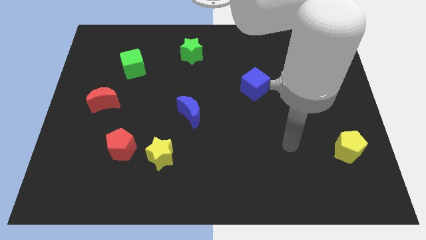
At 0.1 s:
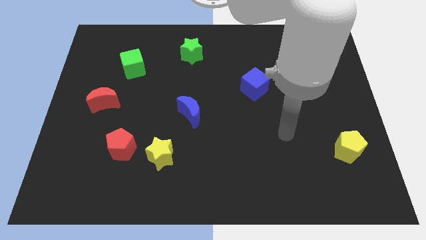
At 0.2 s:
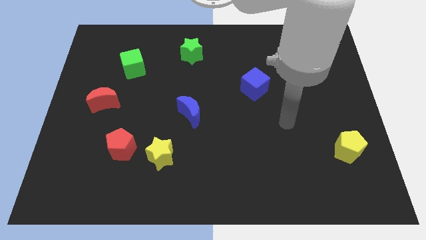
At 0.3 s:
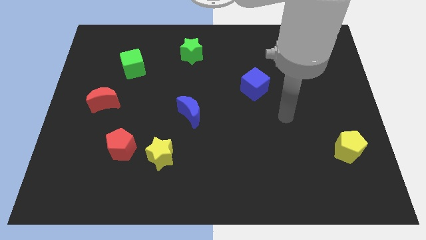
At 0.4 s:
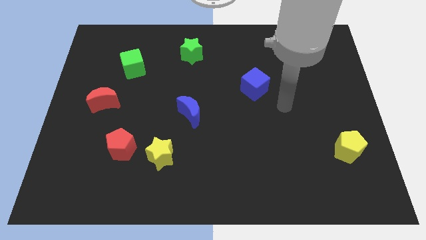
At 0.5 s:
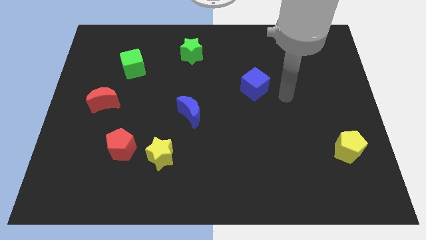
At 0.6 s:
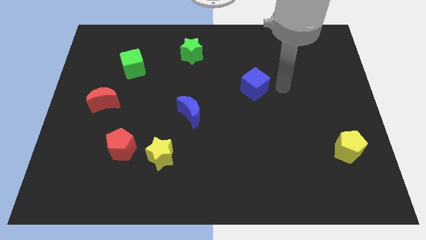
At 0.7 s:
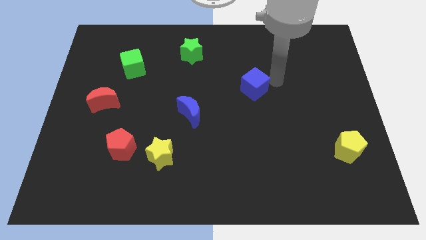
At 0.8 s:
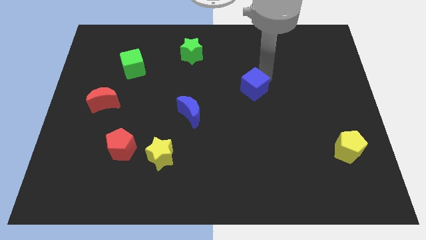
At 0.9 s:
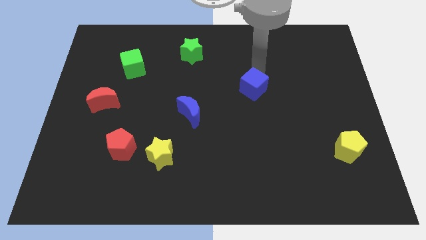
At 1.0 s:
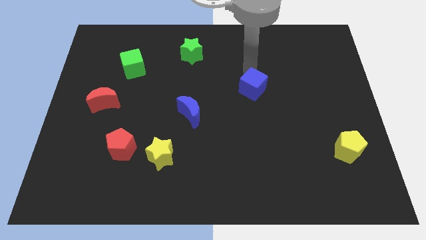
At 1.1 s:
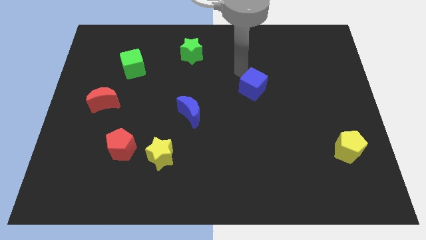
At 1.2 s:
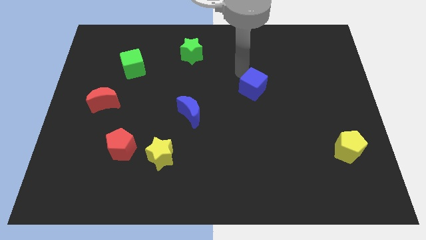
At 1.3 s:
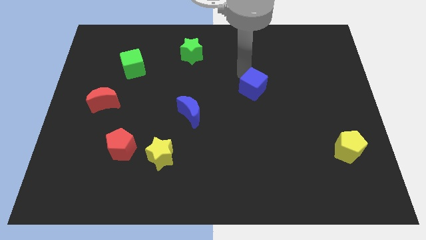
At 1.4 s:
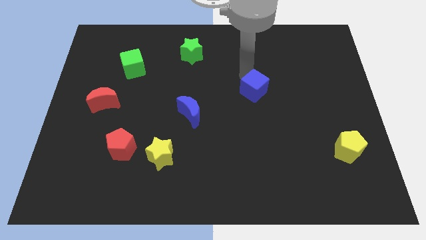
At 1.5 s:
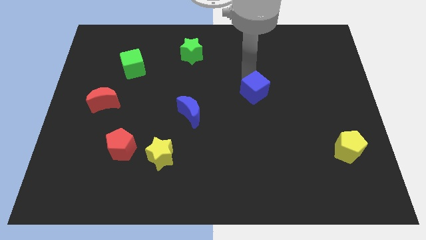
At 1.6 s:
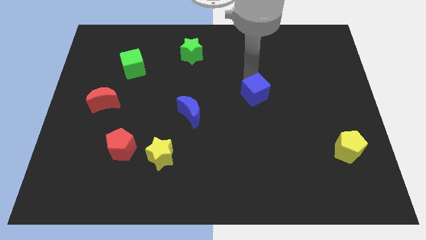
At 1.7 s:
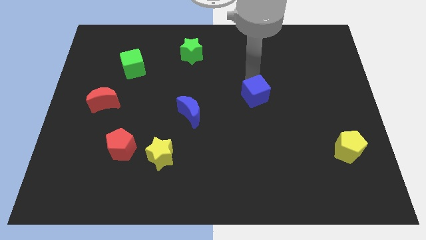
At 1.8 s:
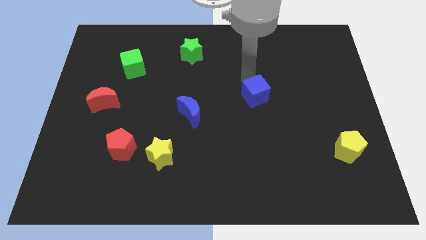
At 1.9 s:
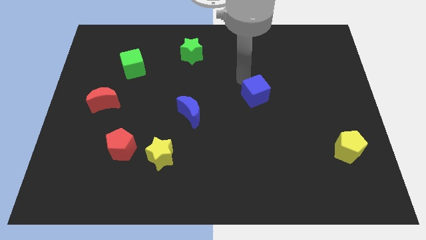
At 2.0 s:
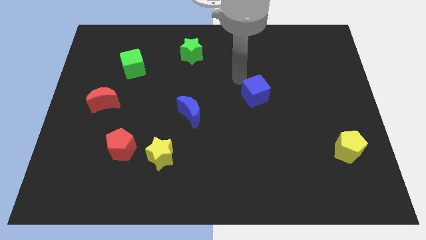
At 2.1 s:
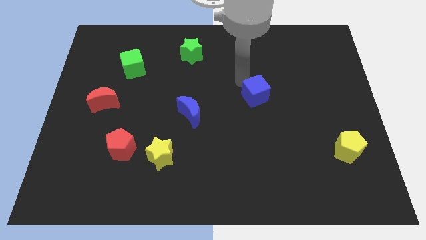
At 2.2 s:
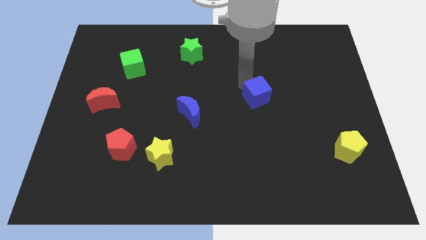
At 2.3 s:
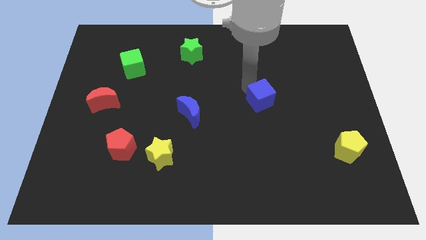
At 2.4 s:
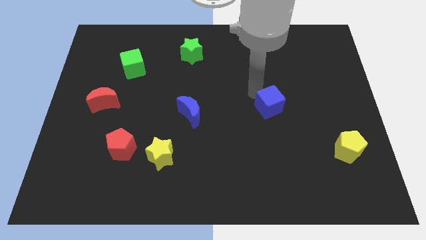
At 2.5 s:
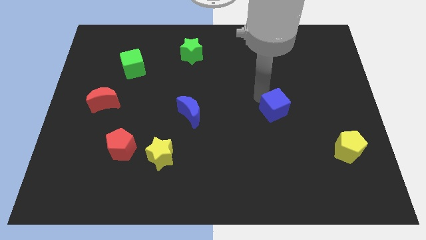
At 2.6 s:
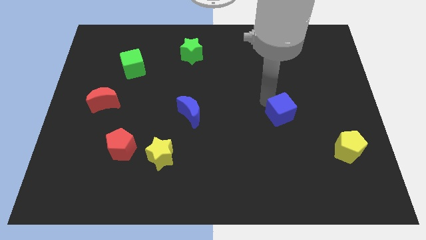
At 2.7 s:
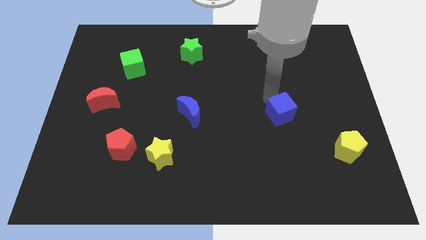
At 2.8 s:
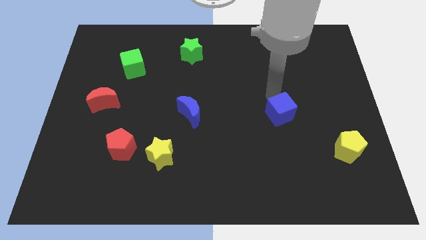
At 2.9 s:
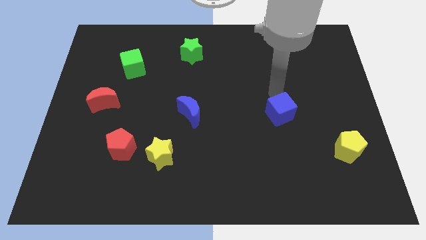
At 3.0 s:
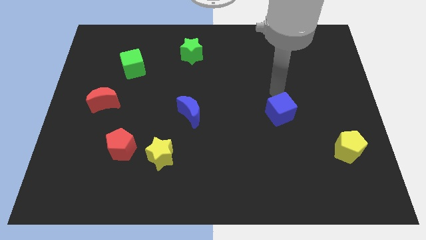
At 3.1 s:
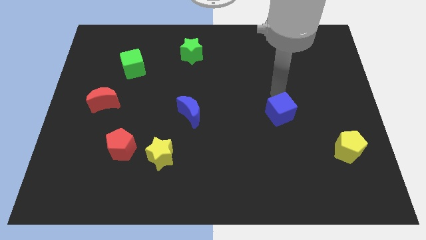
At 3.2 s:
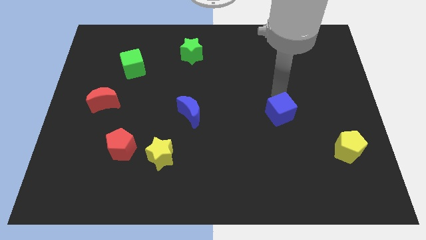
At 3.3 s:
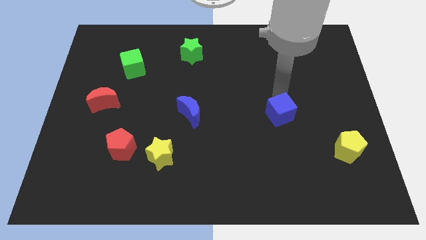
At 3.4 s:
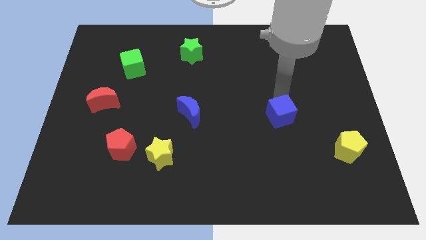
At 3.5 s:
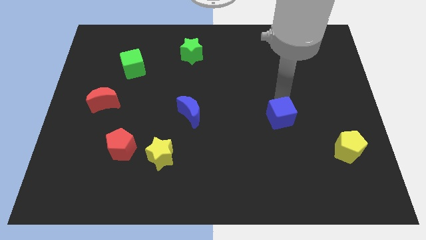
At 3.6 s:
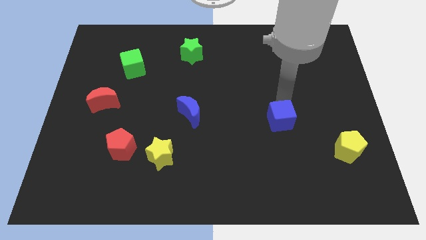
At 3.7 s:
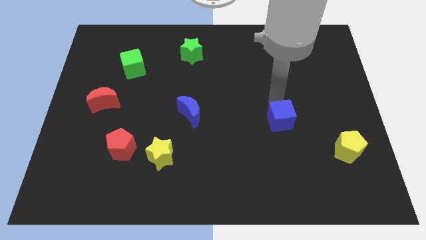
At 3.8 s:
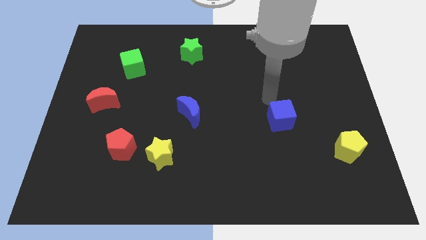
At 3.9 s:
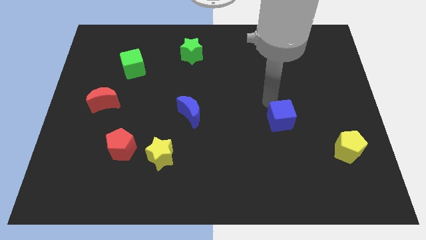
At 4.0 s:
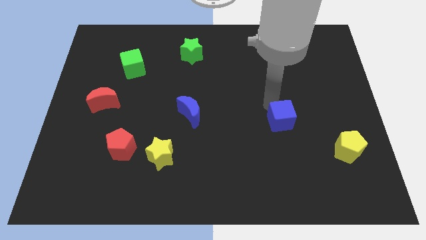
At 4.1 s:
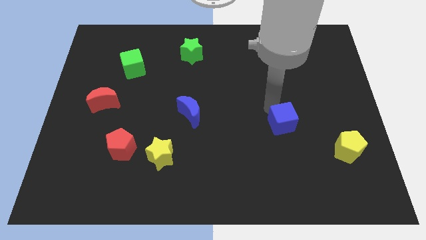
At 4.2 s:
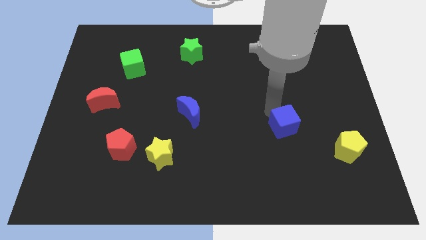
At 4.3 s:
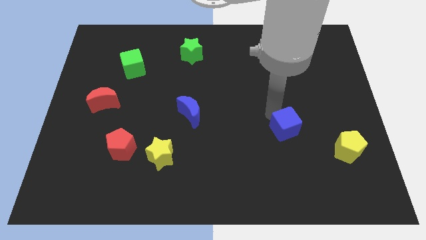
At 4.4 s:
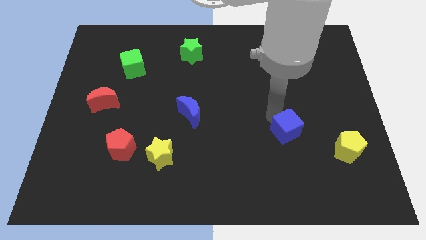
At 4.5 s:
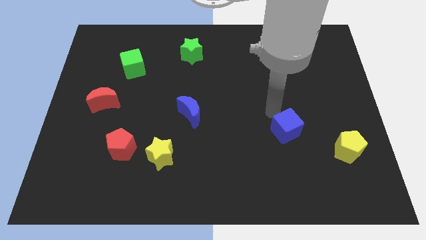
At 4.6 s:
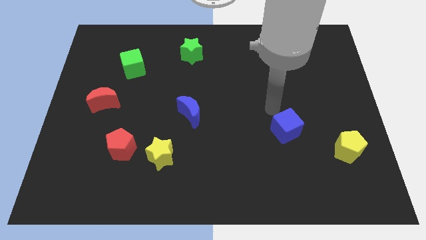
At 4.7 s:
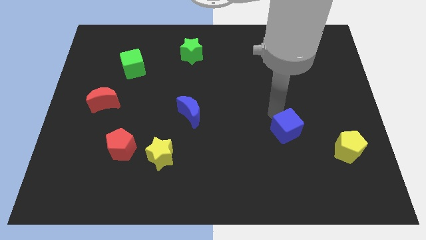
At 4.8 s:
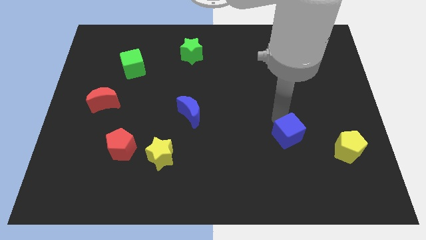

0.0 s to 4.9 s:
slide the blue cube to the left of the yellow pentagon

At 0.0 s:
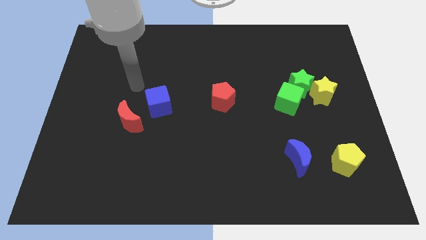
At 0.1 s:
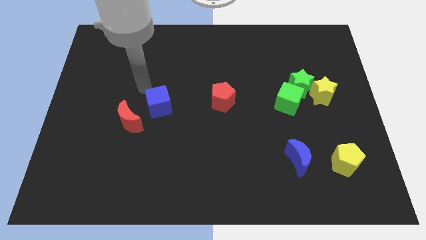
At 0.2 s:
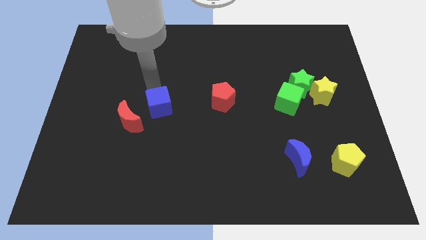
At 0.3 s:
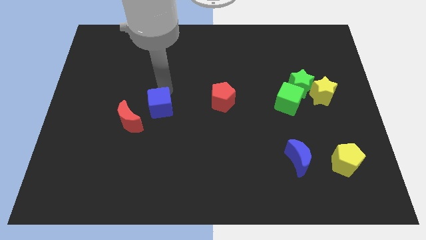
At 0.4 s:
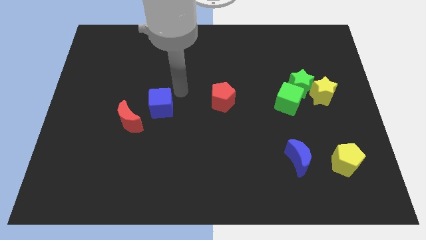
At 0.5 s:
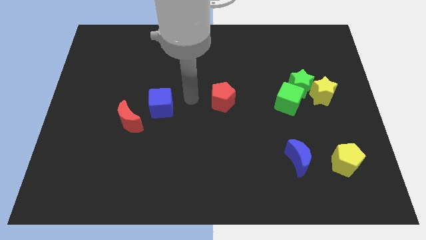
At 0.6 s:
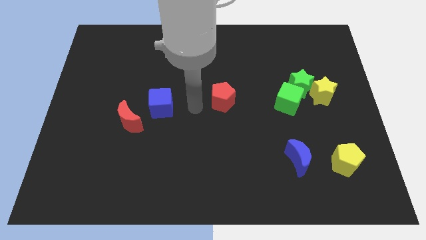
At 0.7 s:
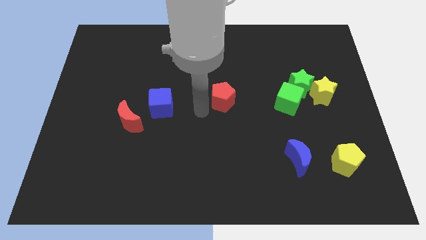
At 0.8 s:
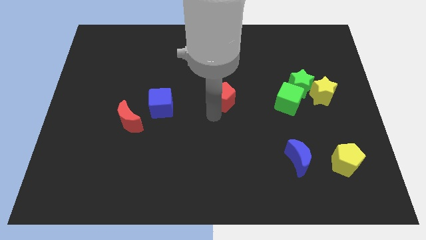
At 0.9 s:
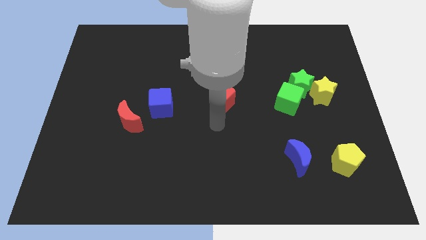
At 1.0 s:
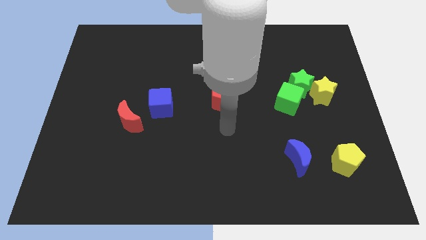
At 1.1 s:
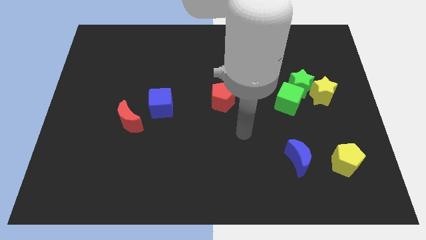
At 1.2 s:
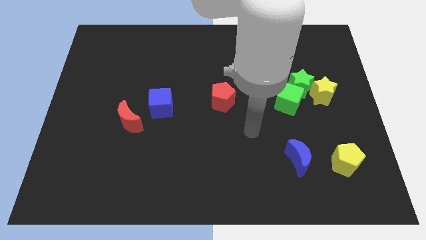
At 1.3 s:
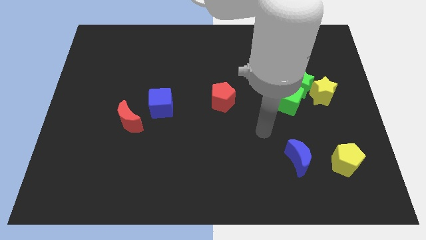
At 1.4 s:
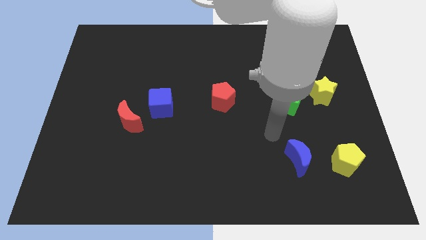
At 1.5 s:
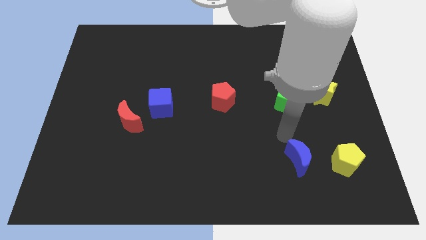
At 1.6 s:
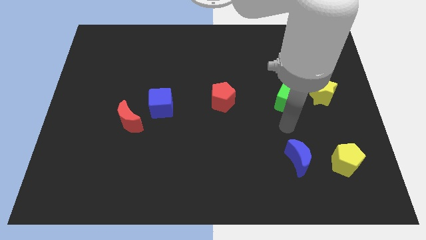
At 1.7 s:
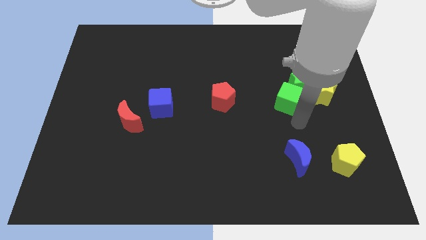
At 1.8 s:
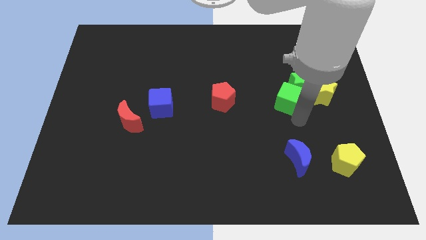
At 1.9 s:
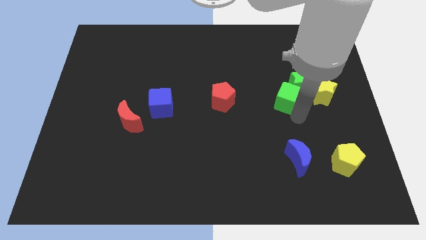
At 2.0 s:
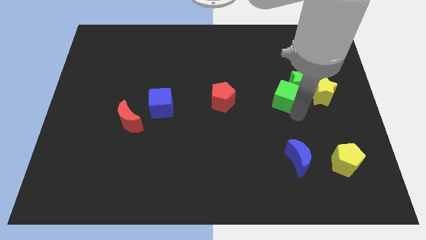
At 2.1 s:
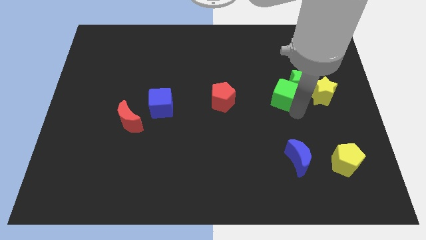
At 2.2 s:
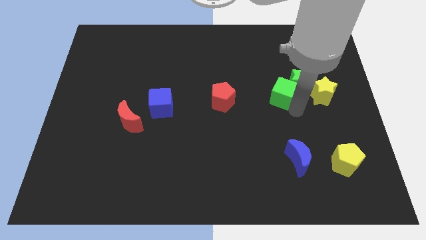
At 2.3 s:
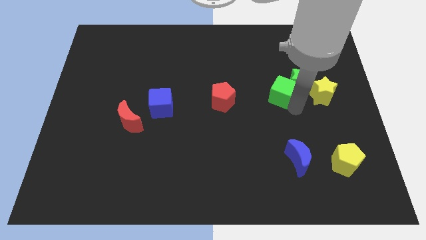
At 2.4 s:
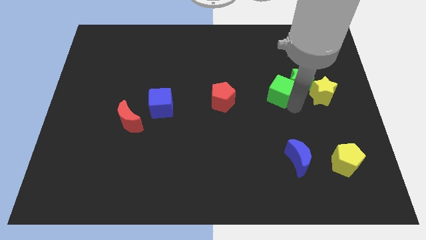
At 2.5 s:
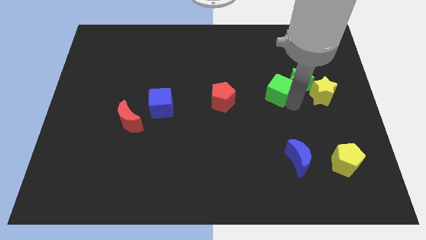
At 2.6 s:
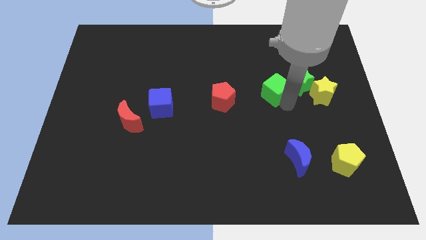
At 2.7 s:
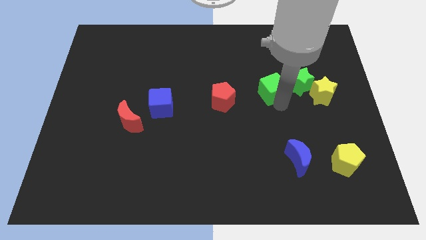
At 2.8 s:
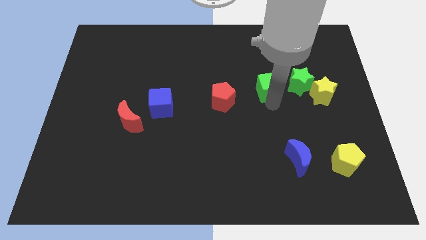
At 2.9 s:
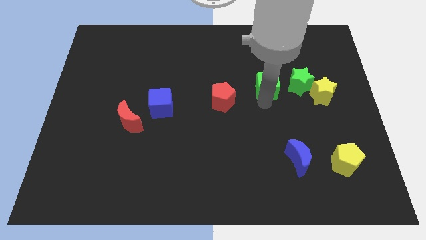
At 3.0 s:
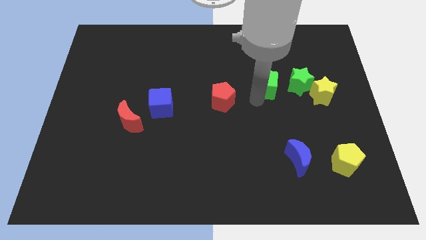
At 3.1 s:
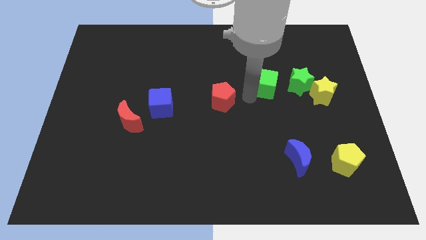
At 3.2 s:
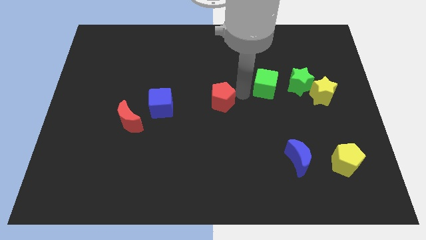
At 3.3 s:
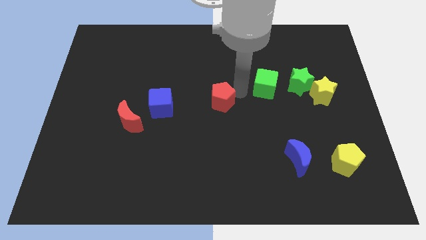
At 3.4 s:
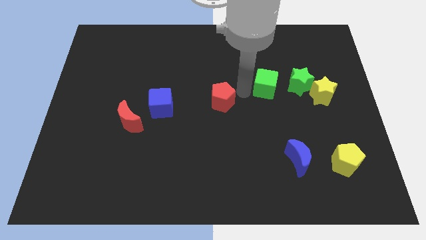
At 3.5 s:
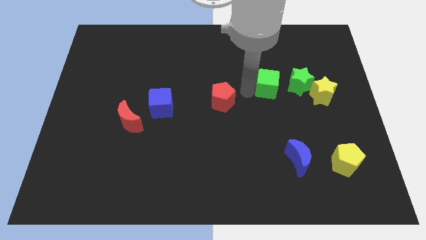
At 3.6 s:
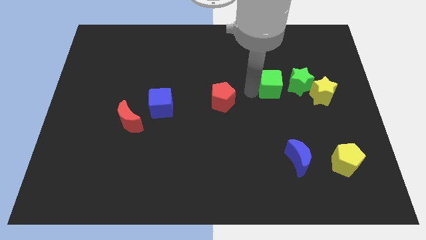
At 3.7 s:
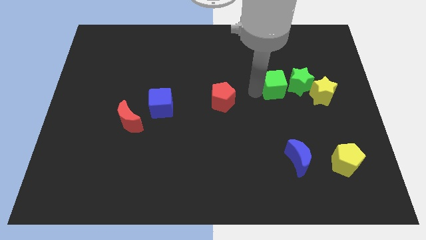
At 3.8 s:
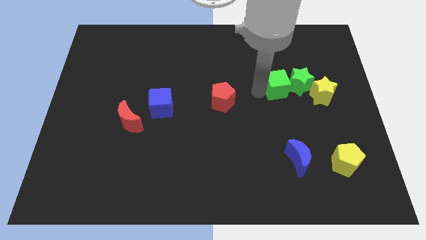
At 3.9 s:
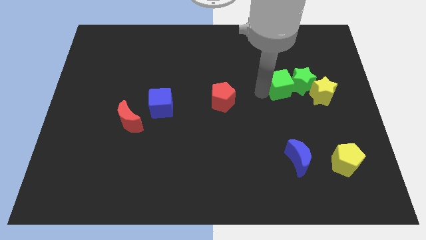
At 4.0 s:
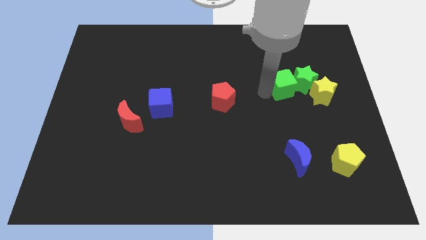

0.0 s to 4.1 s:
push the green cube diagonally up and to the left of the yellow star
